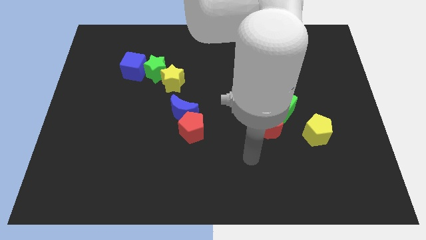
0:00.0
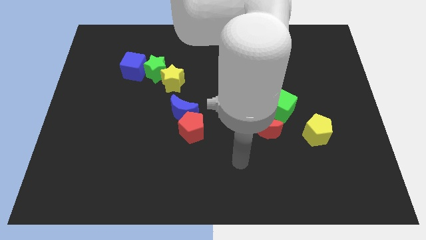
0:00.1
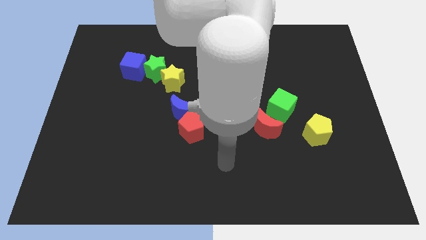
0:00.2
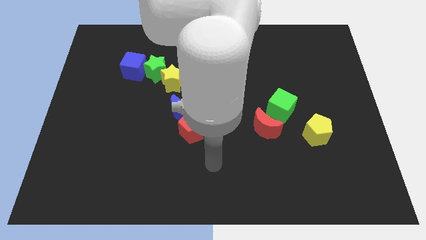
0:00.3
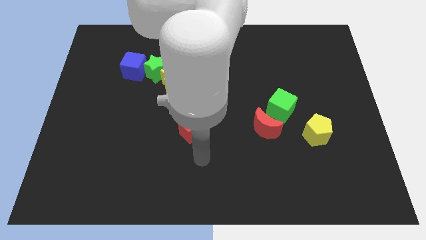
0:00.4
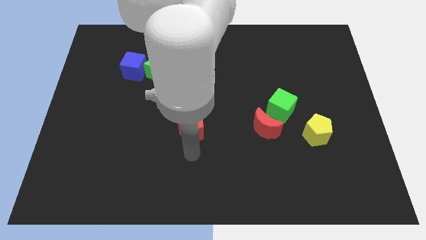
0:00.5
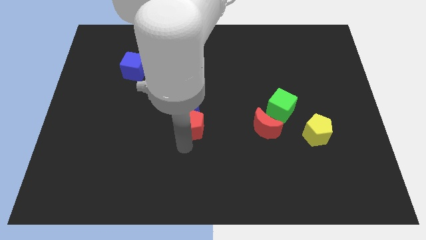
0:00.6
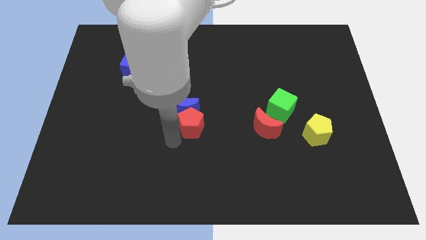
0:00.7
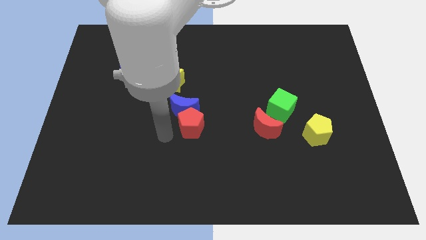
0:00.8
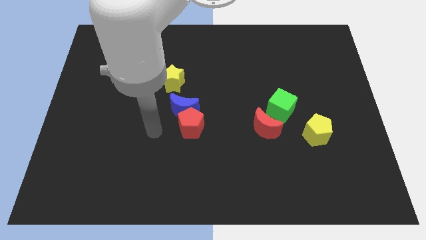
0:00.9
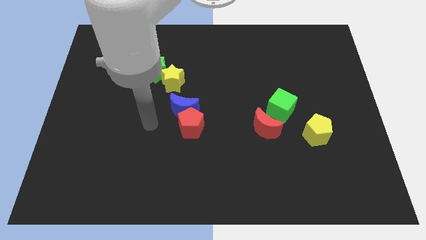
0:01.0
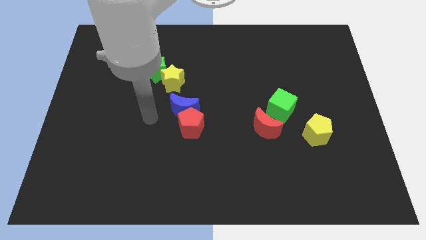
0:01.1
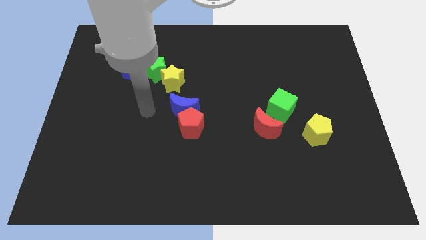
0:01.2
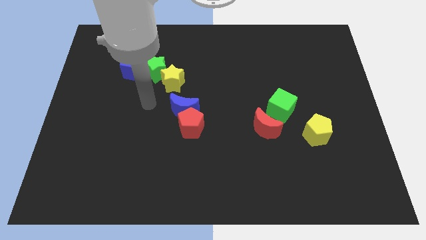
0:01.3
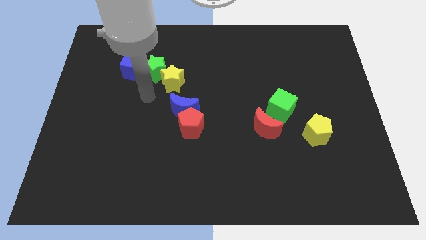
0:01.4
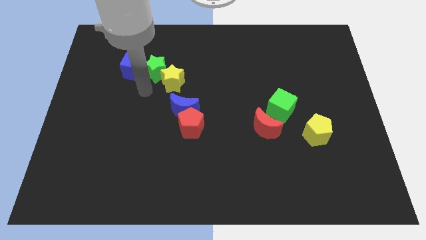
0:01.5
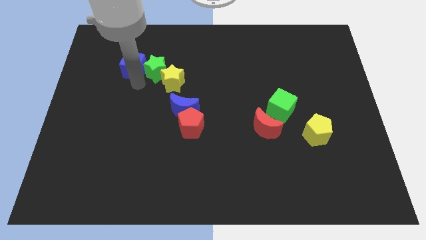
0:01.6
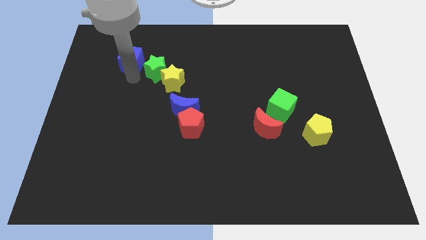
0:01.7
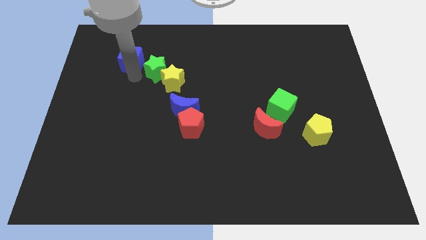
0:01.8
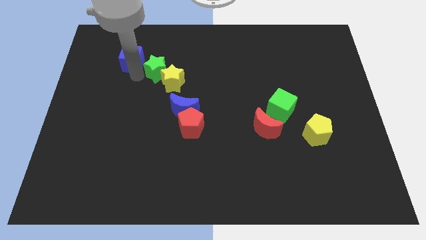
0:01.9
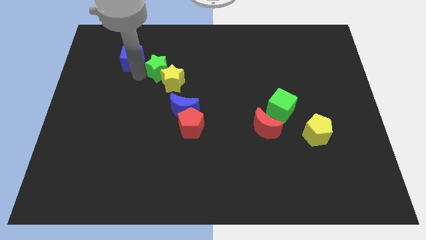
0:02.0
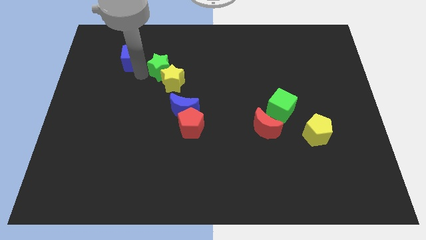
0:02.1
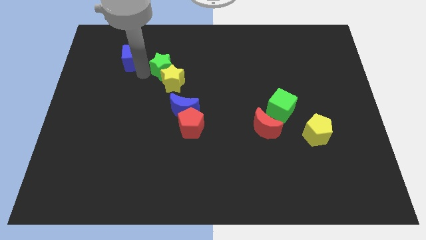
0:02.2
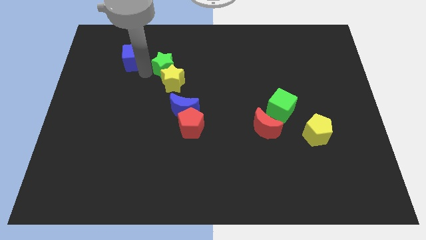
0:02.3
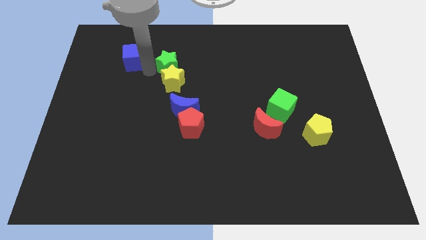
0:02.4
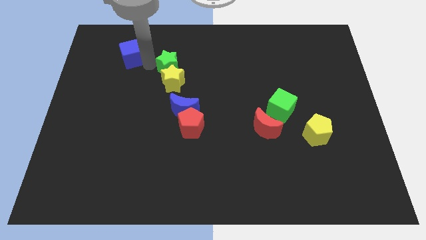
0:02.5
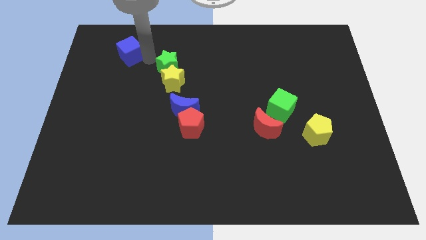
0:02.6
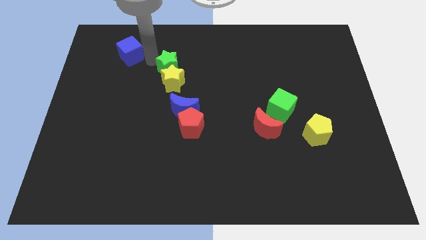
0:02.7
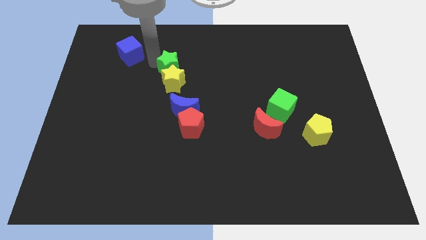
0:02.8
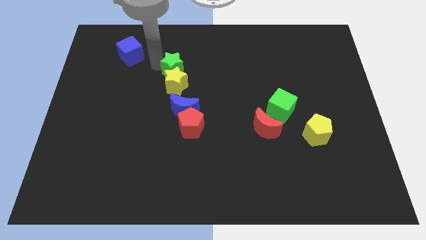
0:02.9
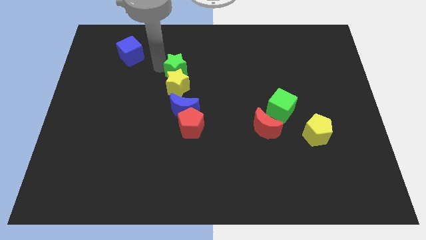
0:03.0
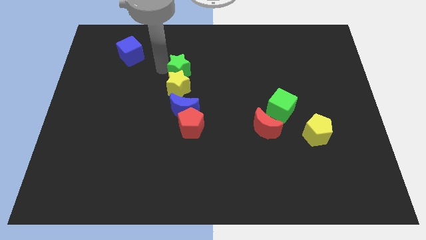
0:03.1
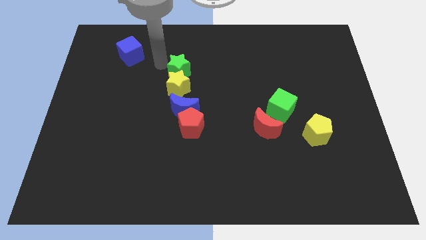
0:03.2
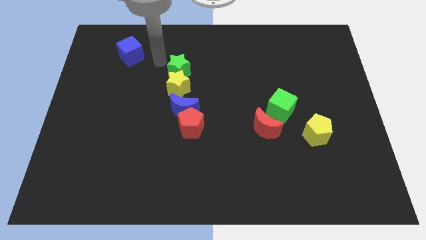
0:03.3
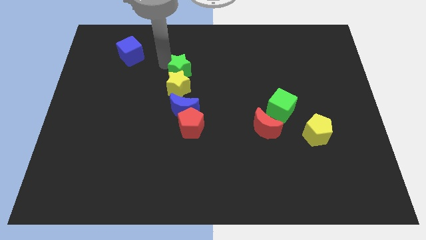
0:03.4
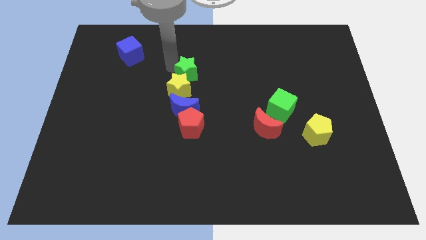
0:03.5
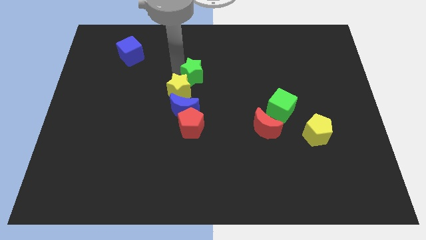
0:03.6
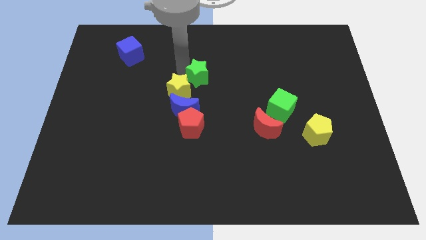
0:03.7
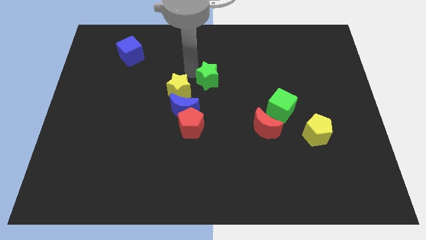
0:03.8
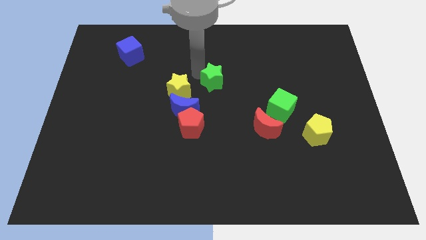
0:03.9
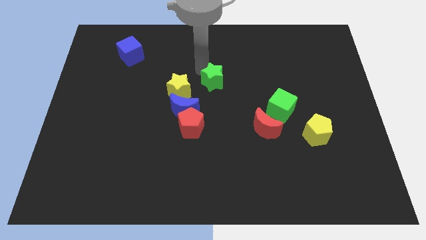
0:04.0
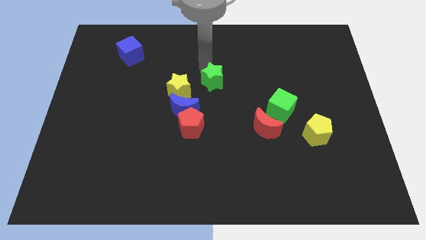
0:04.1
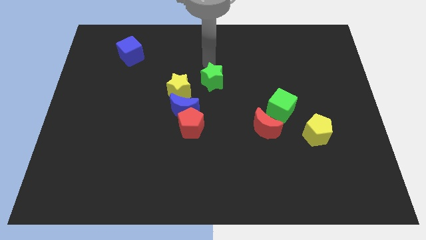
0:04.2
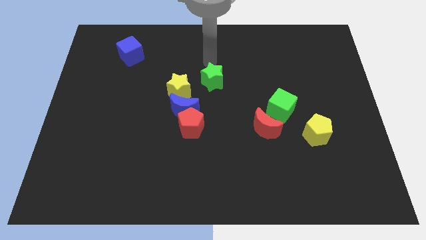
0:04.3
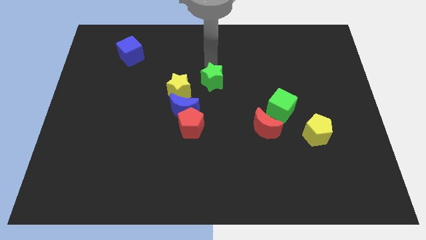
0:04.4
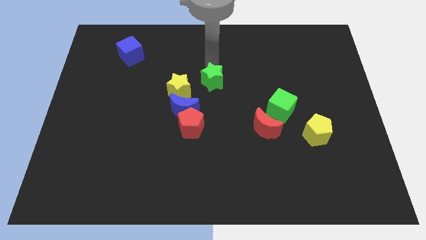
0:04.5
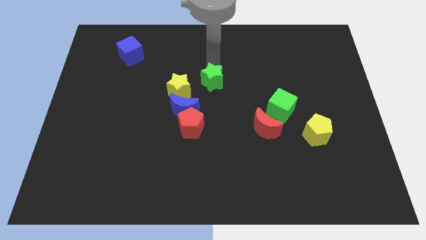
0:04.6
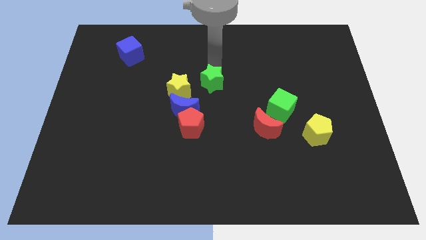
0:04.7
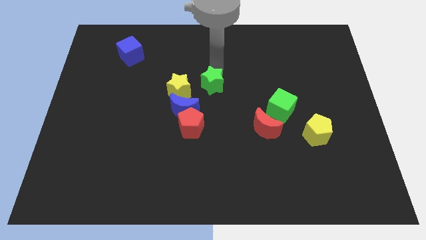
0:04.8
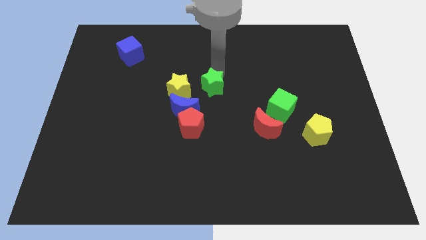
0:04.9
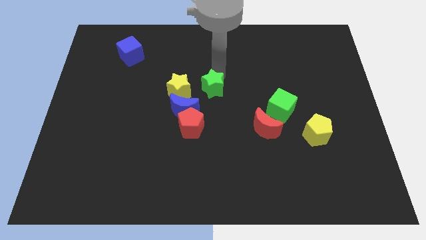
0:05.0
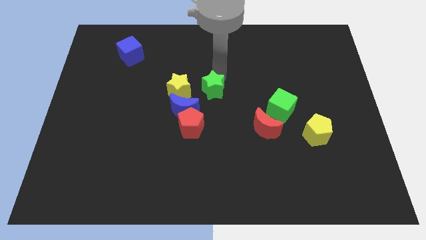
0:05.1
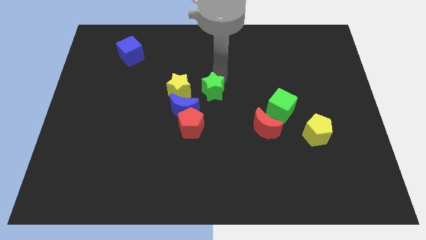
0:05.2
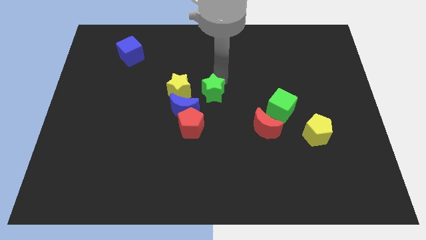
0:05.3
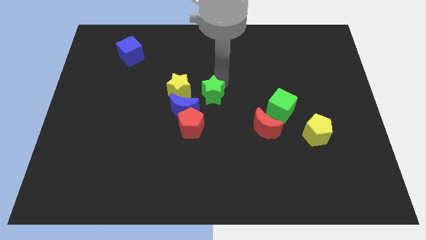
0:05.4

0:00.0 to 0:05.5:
slide the green star just right of the blue moon
